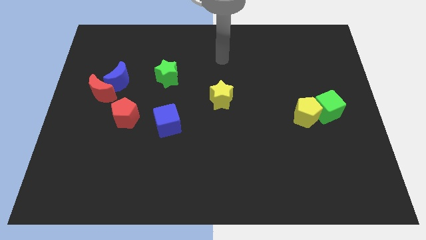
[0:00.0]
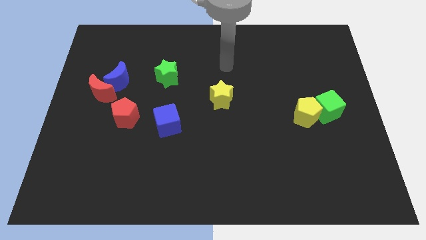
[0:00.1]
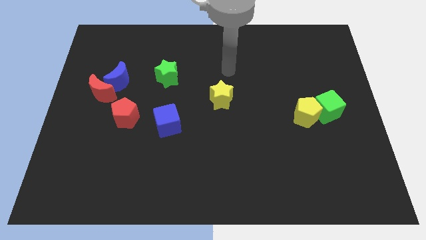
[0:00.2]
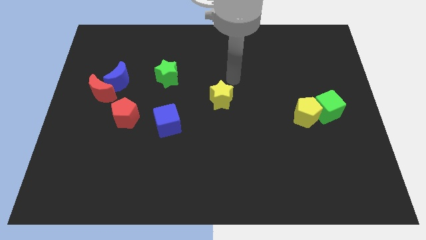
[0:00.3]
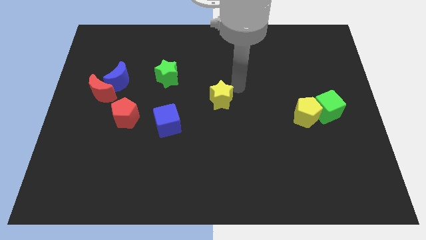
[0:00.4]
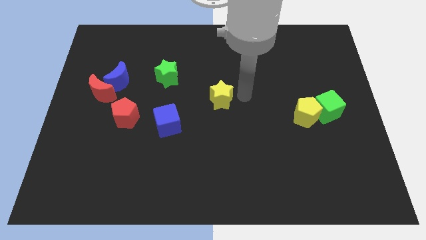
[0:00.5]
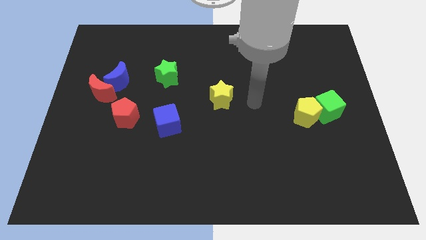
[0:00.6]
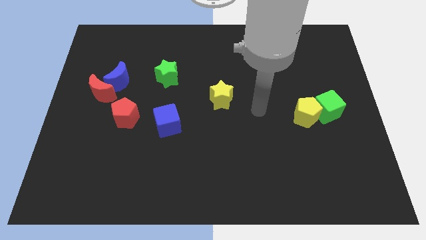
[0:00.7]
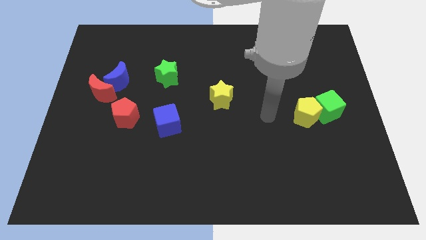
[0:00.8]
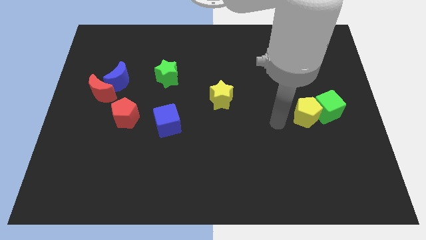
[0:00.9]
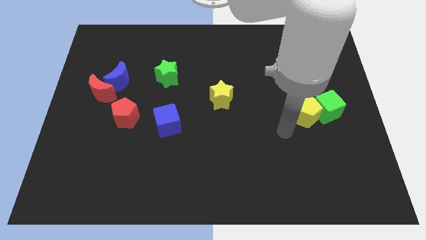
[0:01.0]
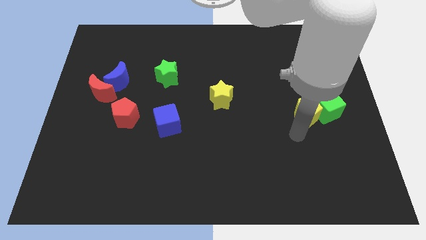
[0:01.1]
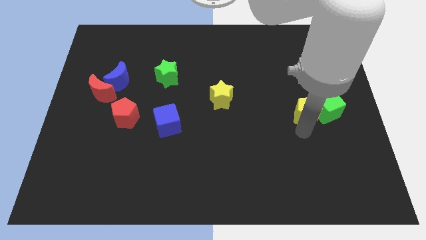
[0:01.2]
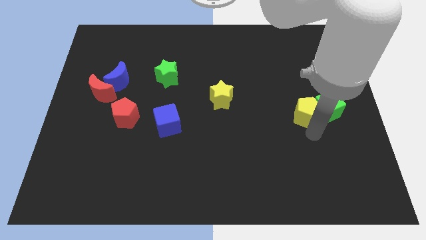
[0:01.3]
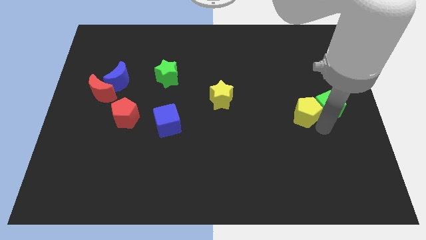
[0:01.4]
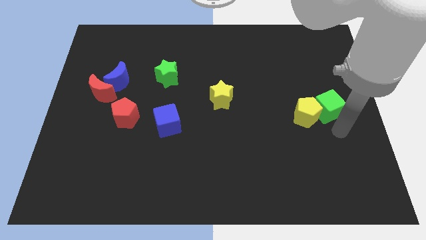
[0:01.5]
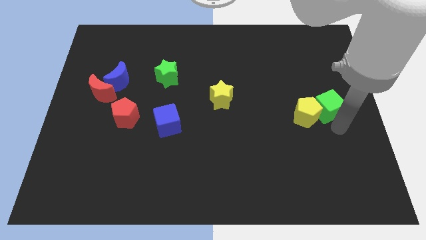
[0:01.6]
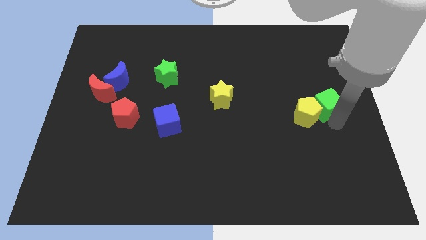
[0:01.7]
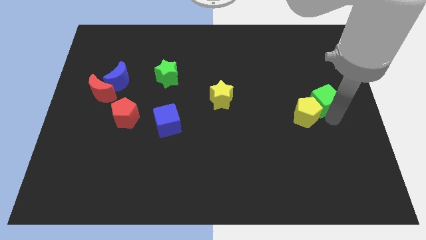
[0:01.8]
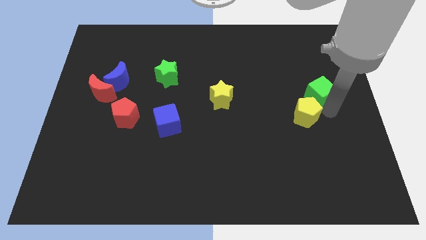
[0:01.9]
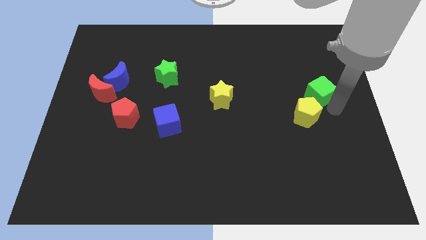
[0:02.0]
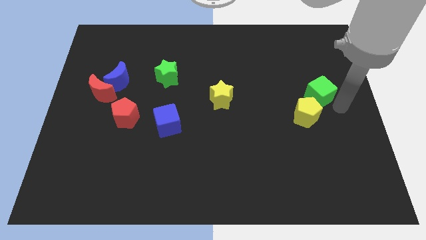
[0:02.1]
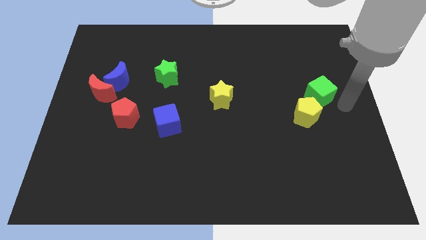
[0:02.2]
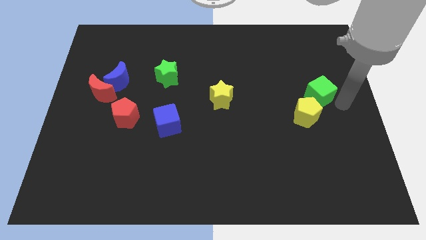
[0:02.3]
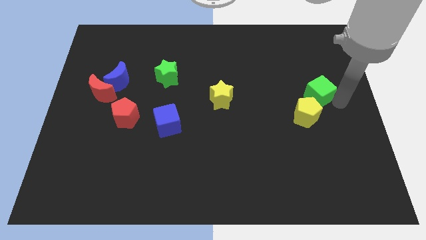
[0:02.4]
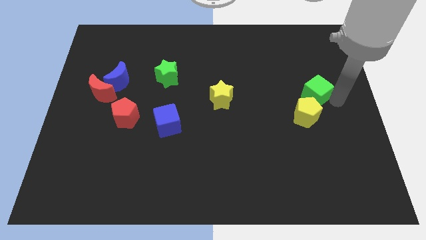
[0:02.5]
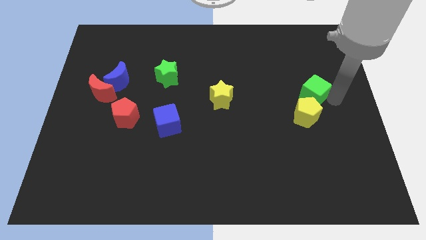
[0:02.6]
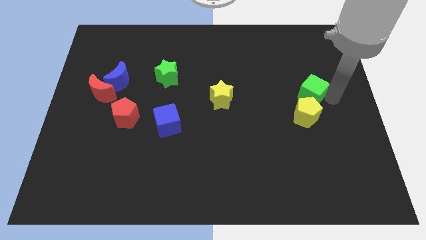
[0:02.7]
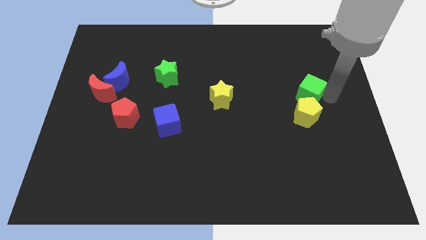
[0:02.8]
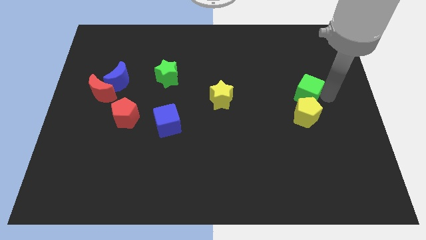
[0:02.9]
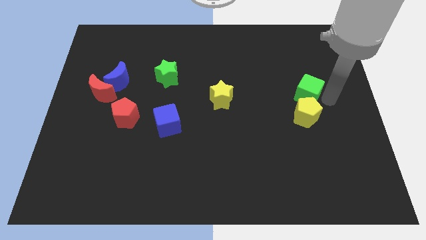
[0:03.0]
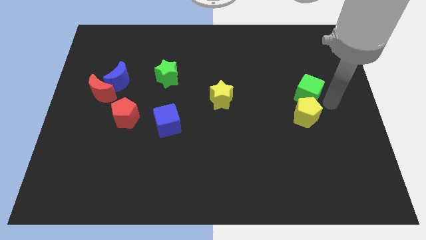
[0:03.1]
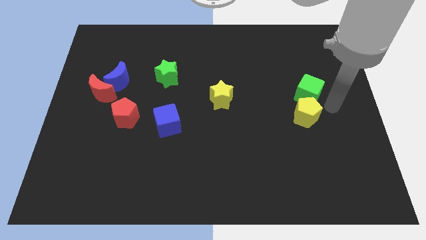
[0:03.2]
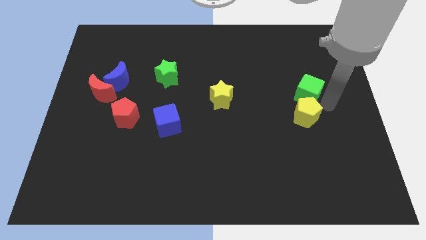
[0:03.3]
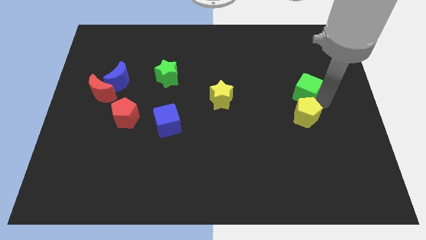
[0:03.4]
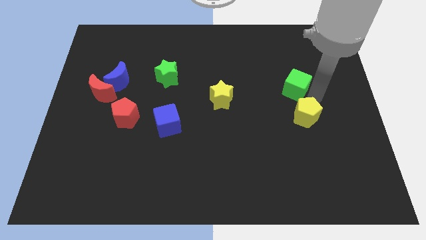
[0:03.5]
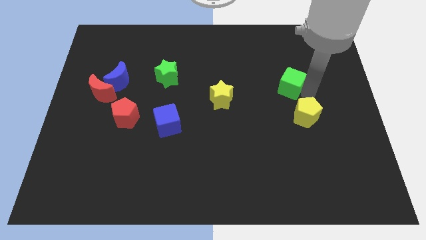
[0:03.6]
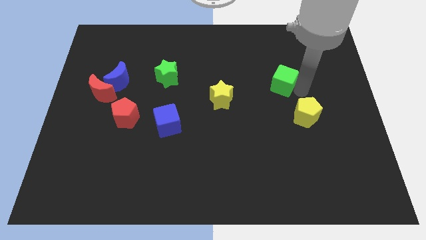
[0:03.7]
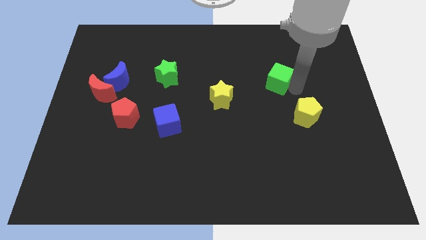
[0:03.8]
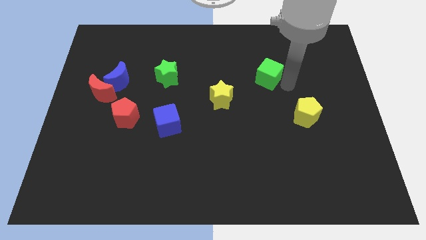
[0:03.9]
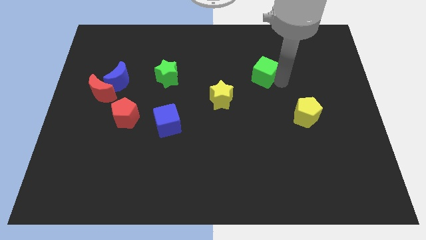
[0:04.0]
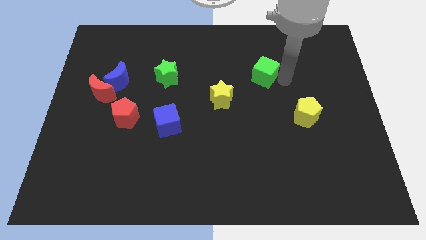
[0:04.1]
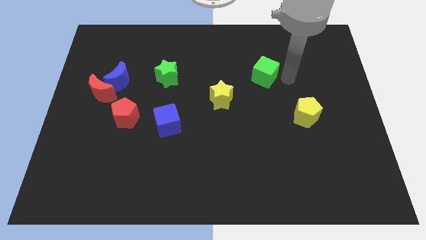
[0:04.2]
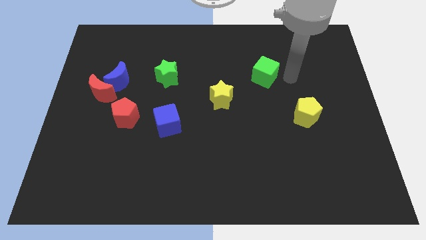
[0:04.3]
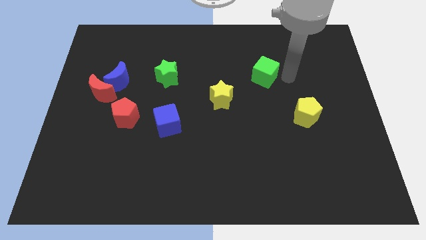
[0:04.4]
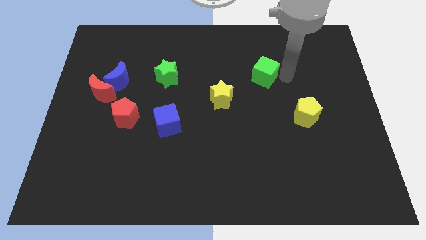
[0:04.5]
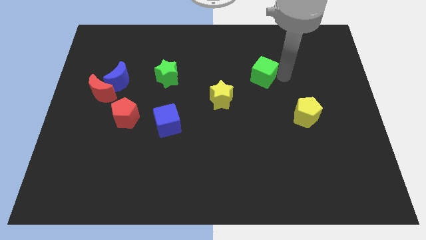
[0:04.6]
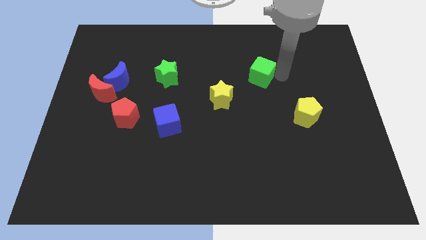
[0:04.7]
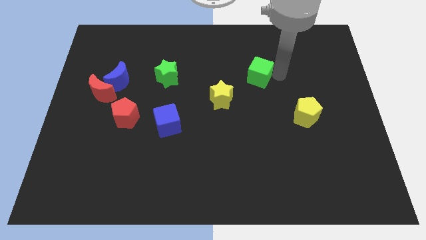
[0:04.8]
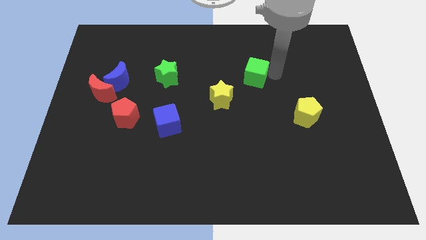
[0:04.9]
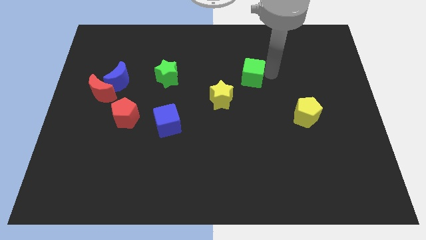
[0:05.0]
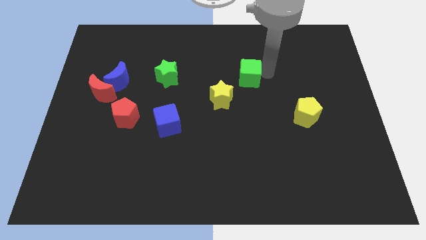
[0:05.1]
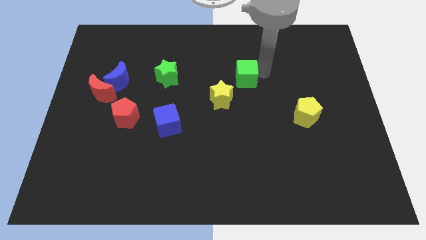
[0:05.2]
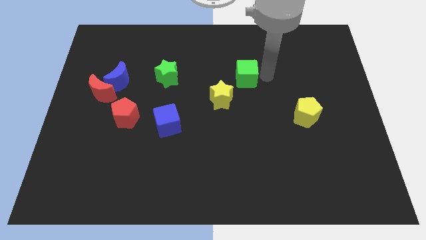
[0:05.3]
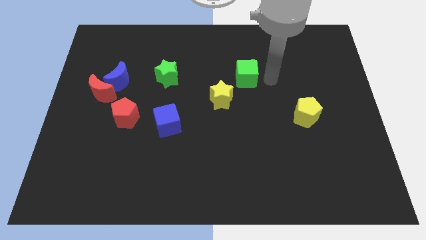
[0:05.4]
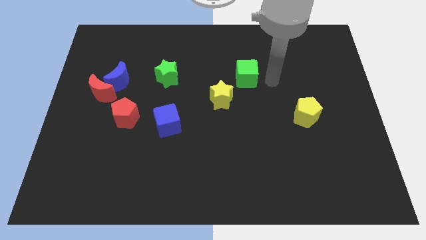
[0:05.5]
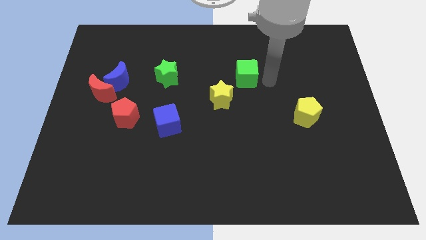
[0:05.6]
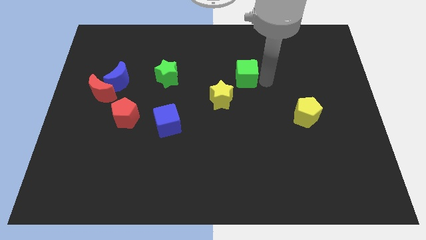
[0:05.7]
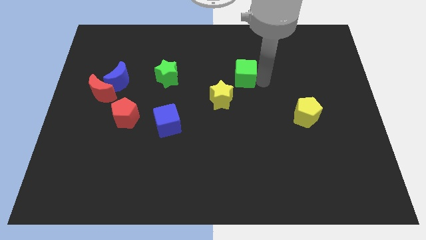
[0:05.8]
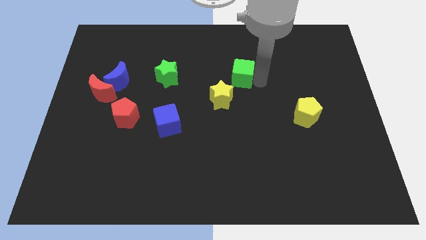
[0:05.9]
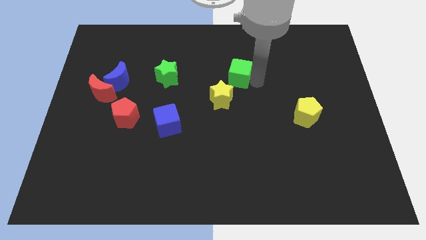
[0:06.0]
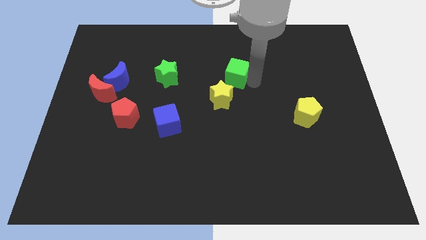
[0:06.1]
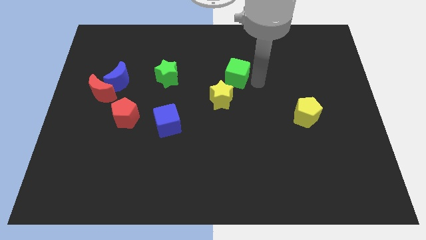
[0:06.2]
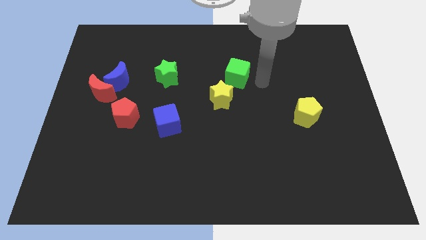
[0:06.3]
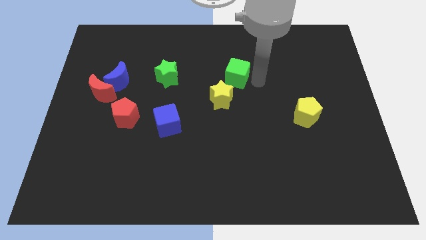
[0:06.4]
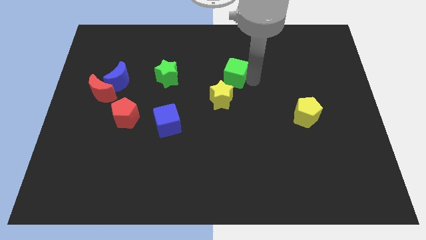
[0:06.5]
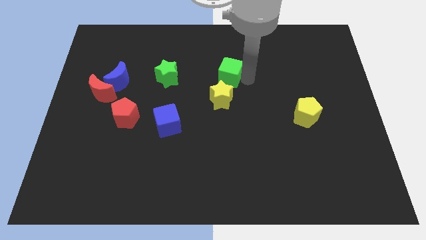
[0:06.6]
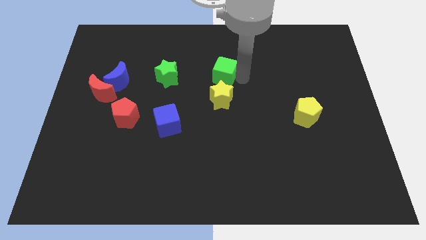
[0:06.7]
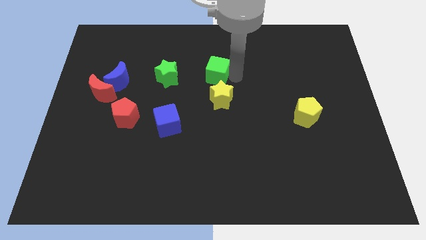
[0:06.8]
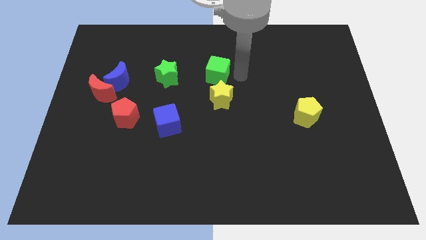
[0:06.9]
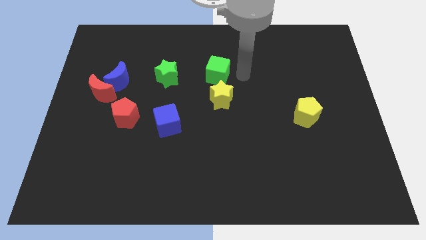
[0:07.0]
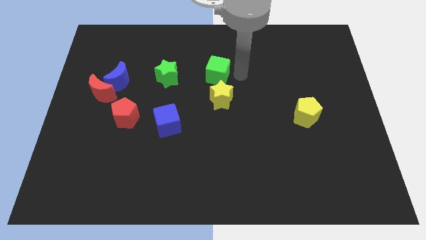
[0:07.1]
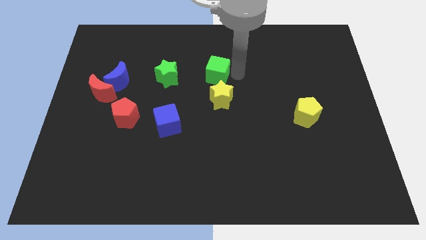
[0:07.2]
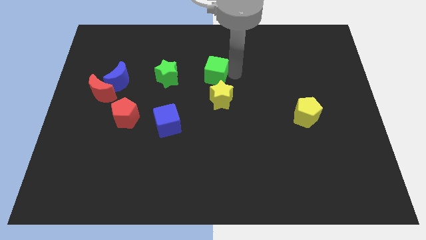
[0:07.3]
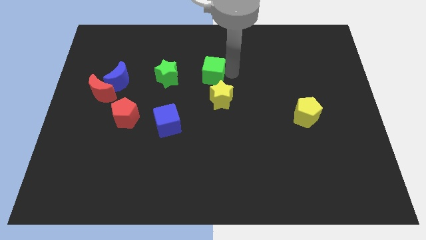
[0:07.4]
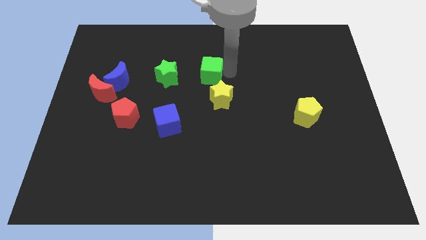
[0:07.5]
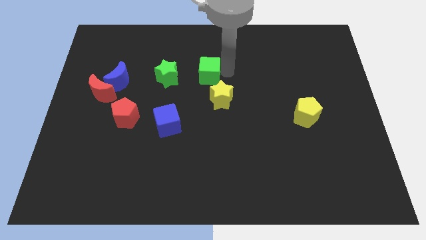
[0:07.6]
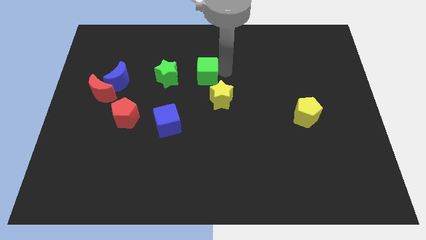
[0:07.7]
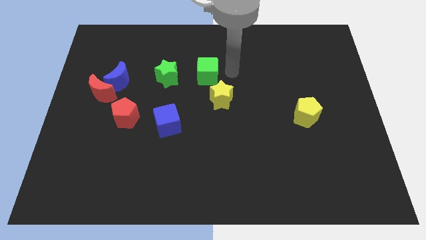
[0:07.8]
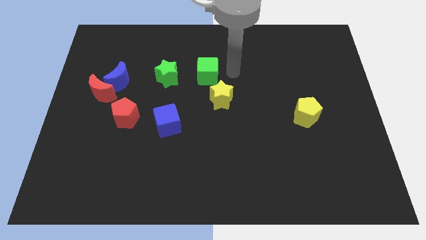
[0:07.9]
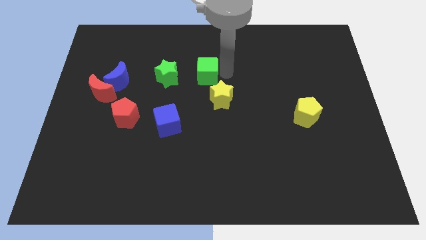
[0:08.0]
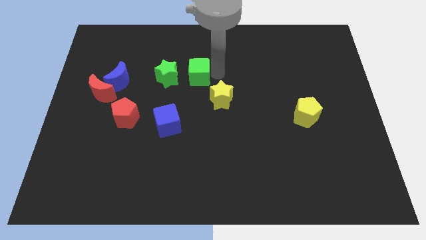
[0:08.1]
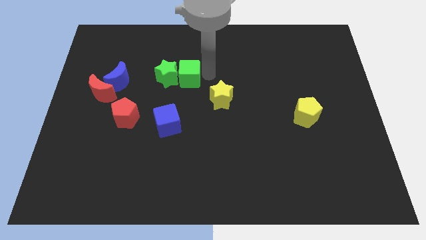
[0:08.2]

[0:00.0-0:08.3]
slide the green cube to the green star
